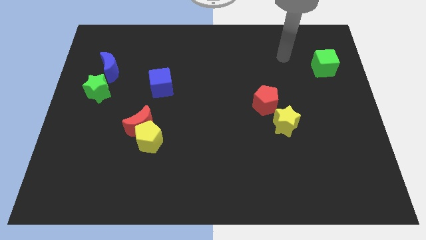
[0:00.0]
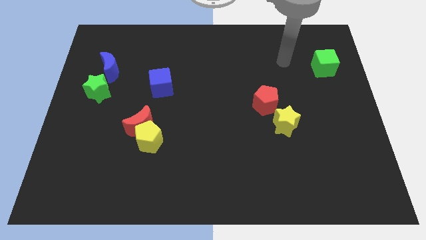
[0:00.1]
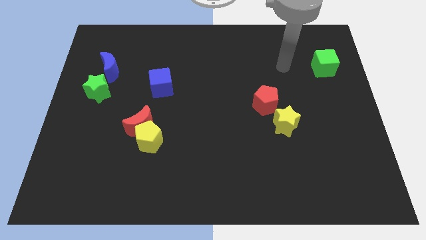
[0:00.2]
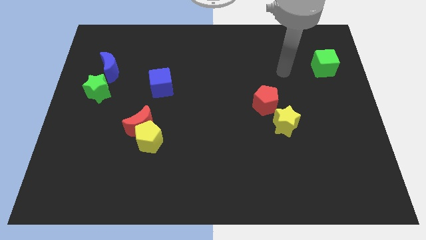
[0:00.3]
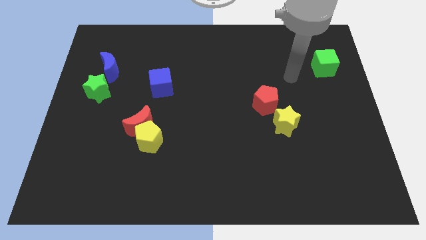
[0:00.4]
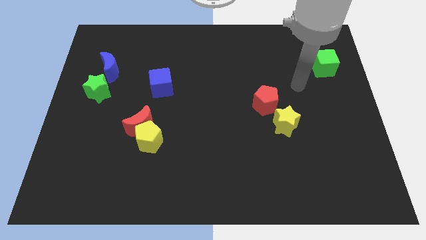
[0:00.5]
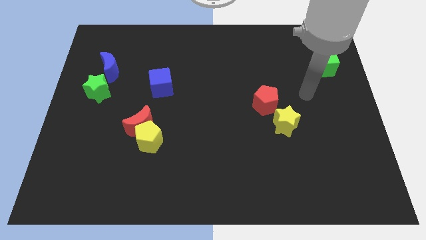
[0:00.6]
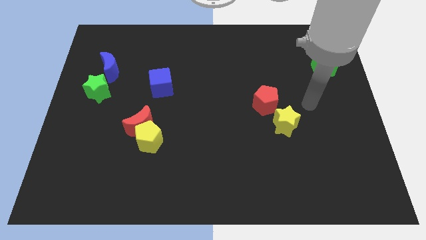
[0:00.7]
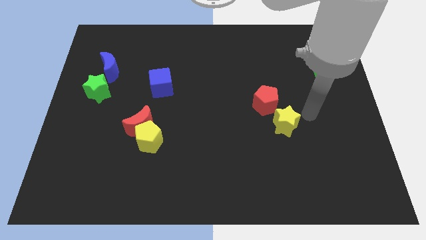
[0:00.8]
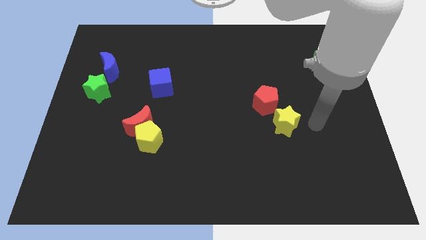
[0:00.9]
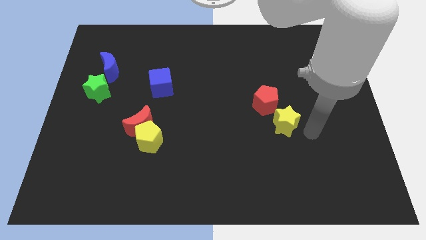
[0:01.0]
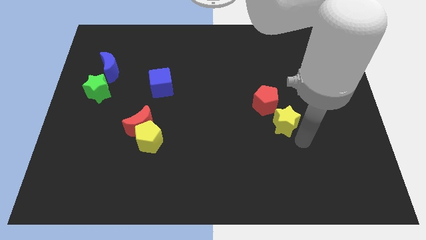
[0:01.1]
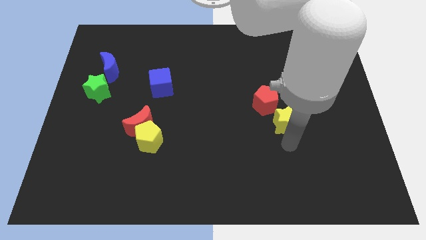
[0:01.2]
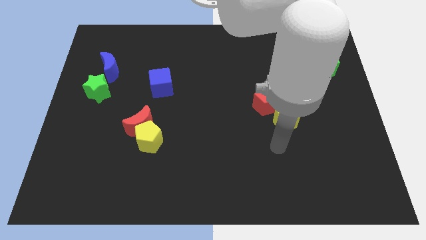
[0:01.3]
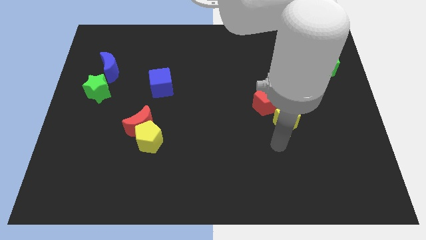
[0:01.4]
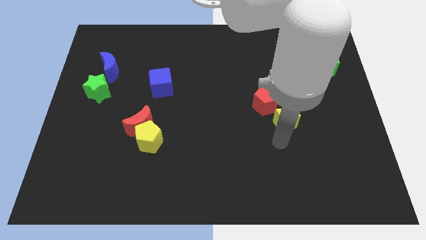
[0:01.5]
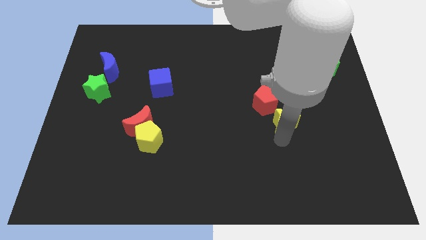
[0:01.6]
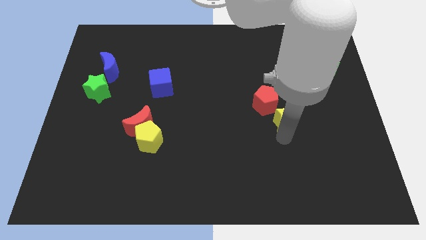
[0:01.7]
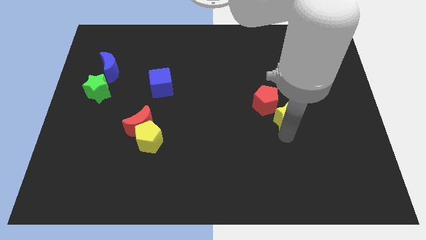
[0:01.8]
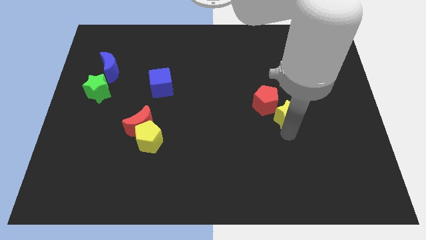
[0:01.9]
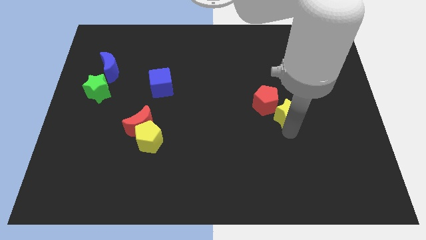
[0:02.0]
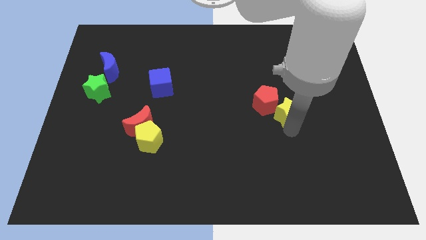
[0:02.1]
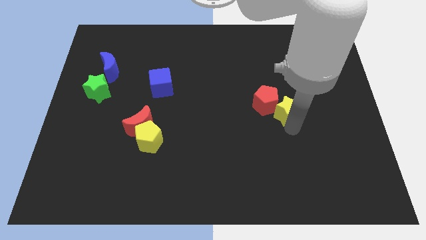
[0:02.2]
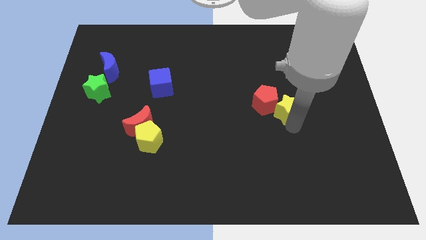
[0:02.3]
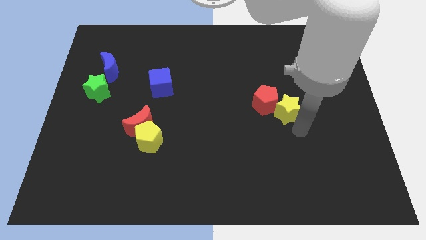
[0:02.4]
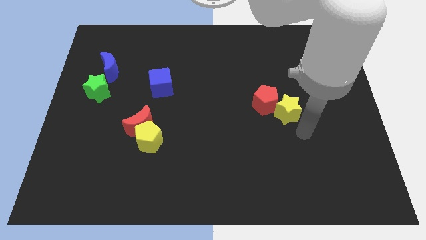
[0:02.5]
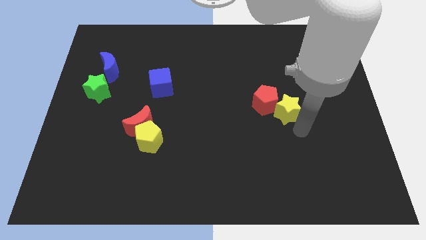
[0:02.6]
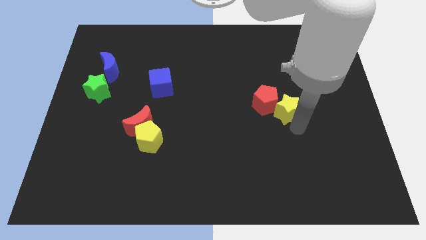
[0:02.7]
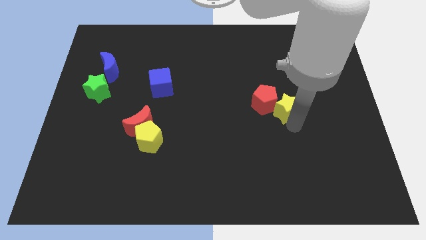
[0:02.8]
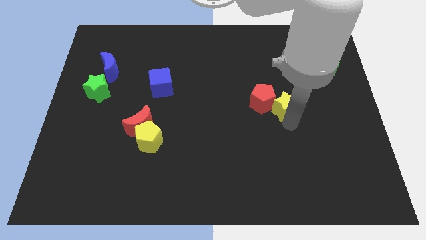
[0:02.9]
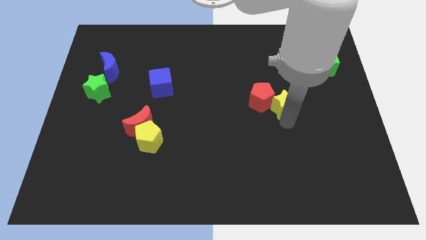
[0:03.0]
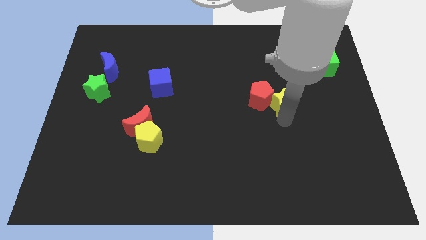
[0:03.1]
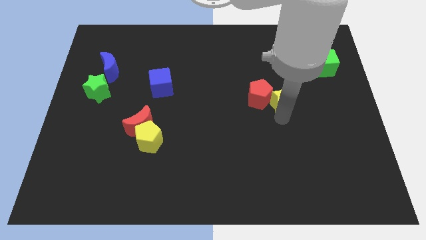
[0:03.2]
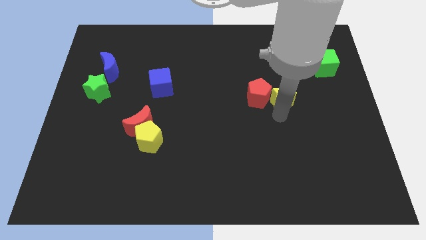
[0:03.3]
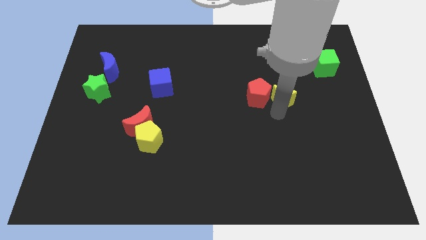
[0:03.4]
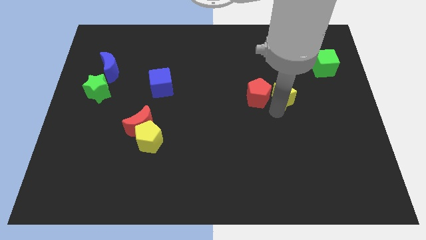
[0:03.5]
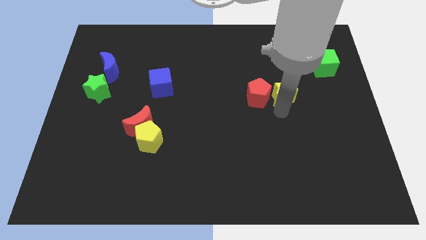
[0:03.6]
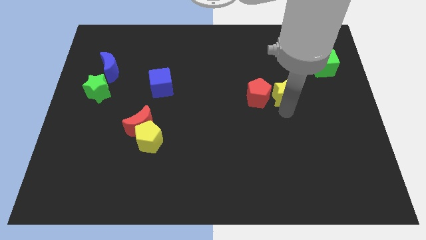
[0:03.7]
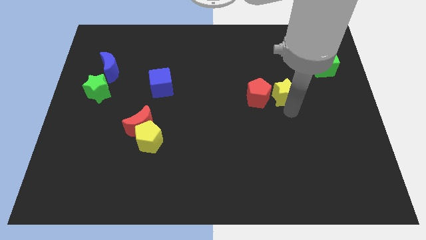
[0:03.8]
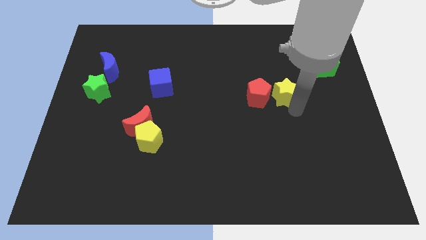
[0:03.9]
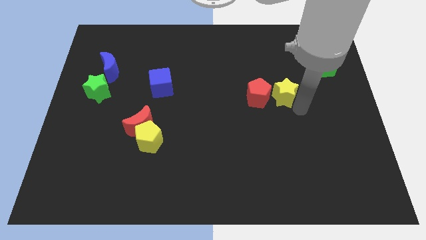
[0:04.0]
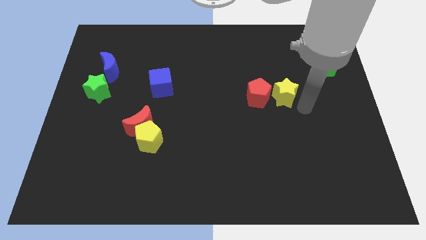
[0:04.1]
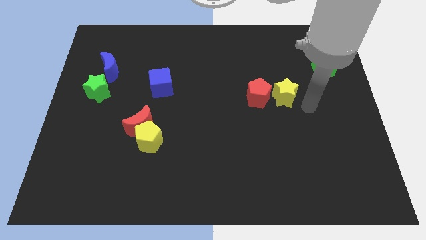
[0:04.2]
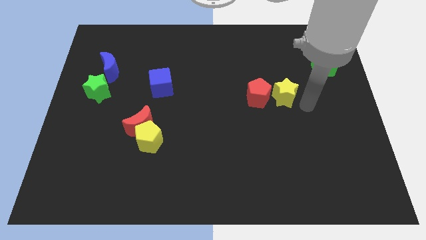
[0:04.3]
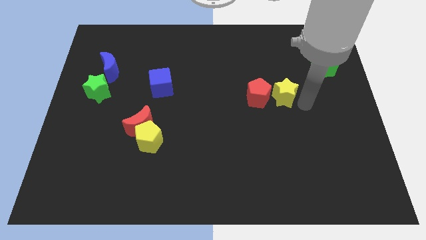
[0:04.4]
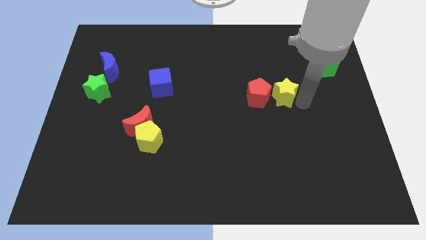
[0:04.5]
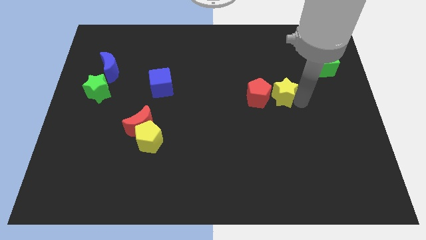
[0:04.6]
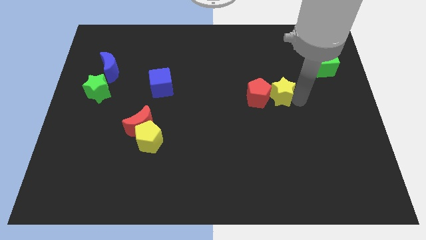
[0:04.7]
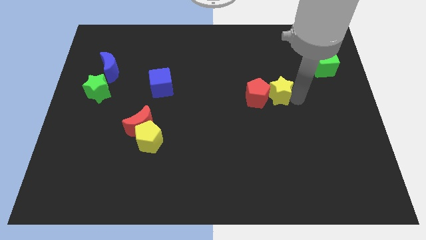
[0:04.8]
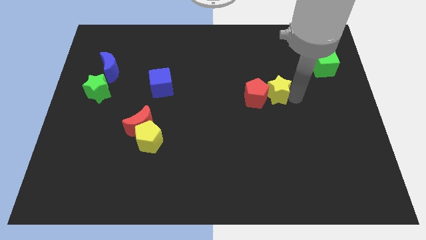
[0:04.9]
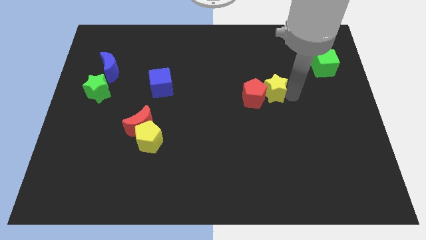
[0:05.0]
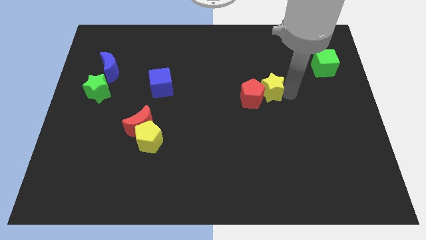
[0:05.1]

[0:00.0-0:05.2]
move the yellow star somewhat up and to the left diagonally

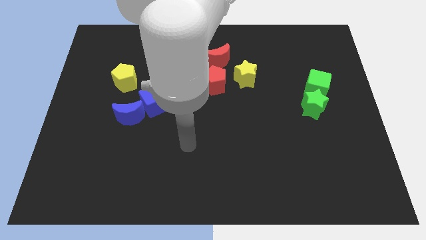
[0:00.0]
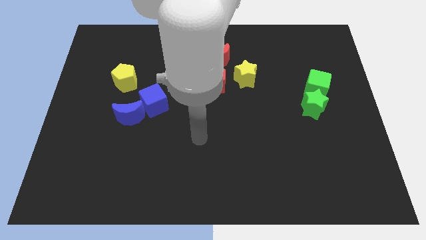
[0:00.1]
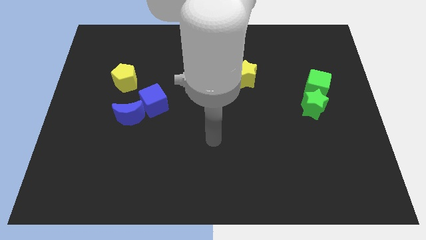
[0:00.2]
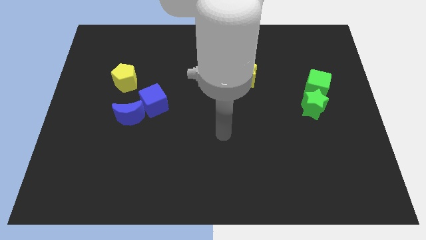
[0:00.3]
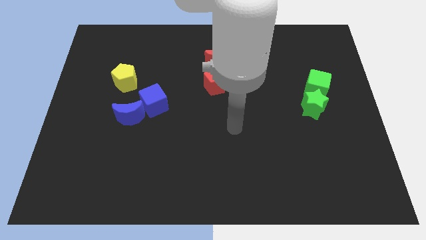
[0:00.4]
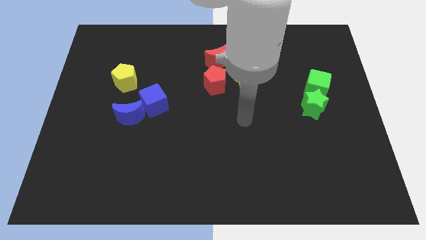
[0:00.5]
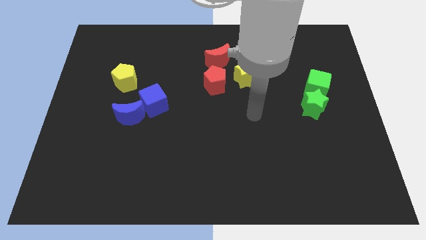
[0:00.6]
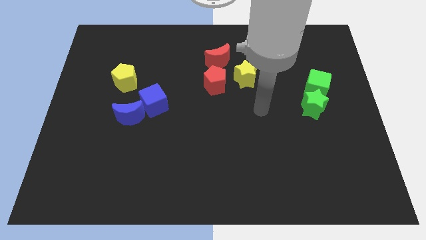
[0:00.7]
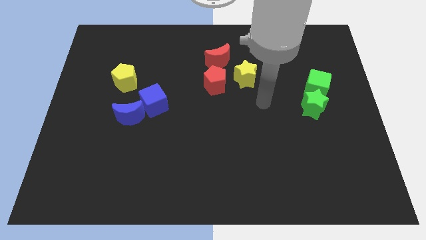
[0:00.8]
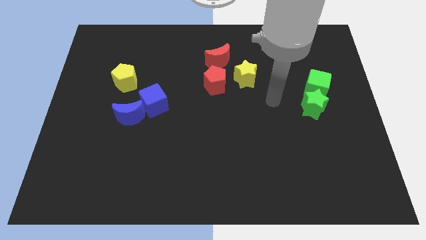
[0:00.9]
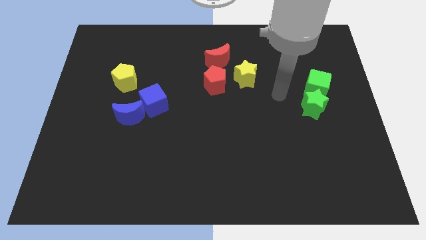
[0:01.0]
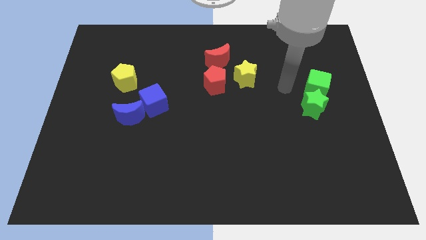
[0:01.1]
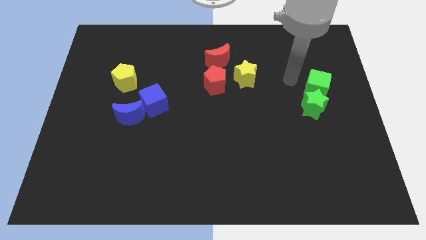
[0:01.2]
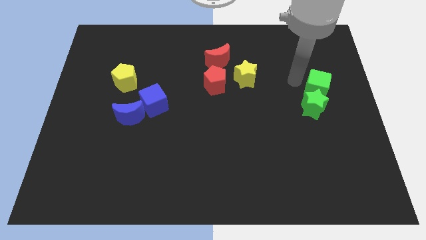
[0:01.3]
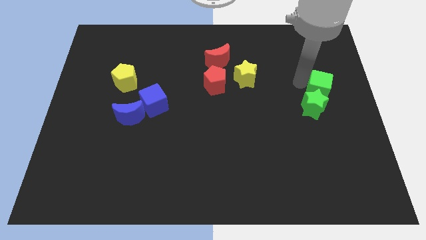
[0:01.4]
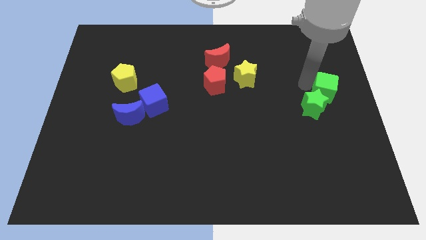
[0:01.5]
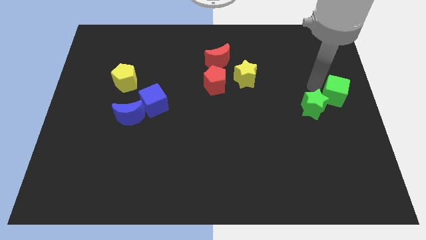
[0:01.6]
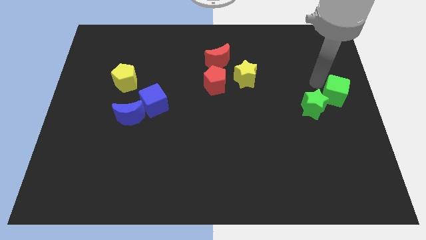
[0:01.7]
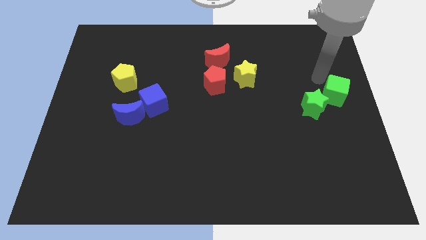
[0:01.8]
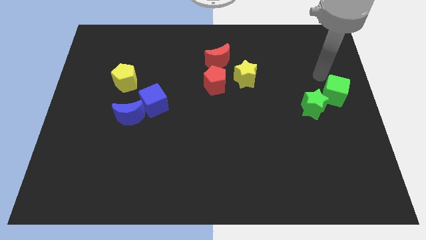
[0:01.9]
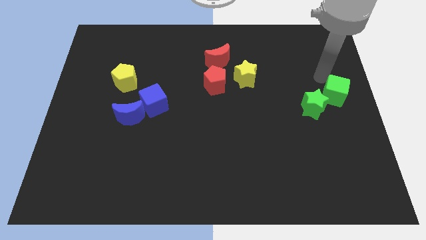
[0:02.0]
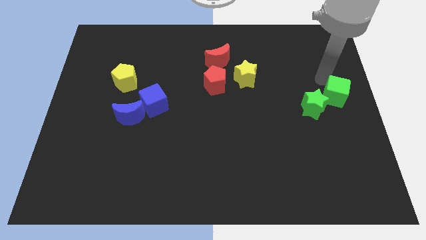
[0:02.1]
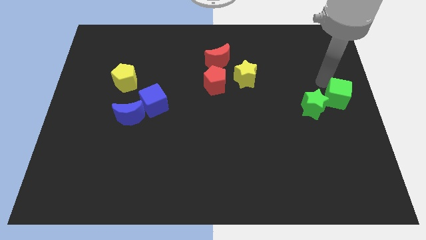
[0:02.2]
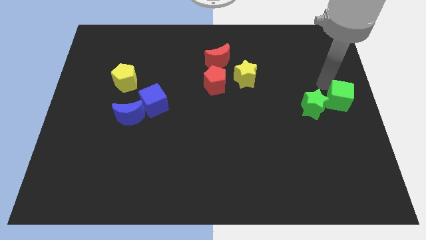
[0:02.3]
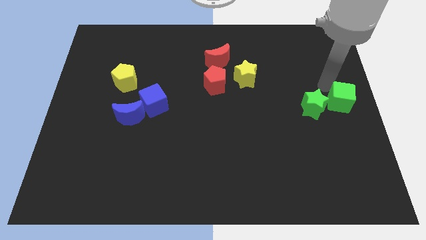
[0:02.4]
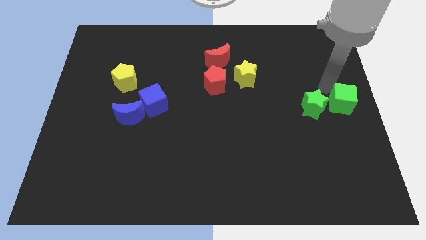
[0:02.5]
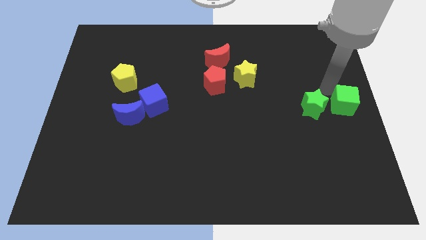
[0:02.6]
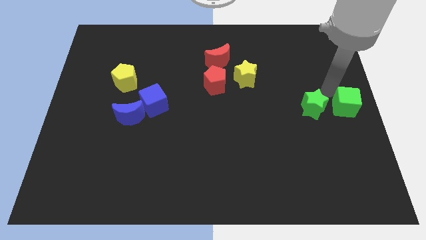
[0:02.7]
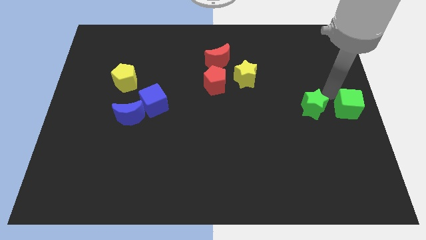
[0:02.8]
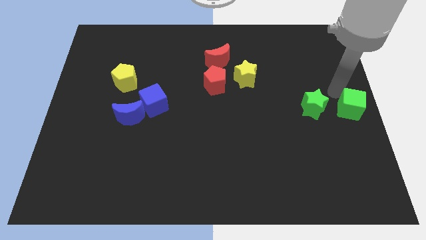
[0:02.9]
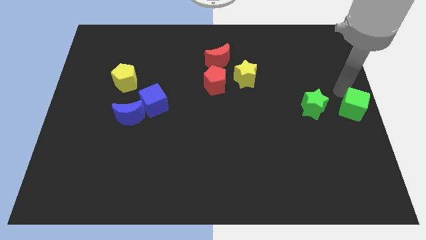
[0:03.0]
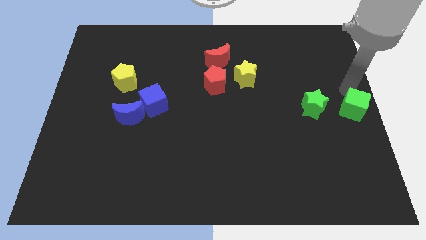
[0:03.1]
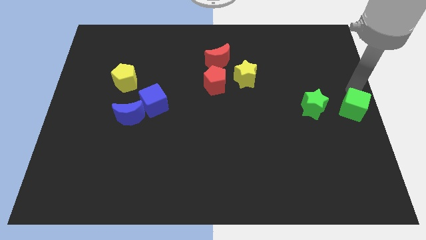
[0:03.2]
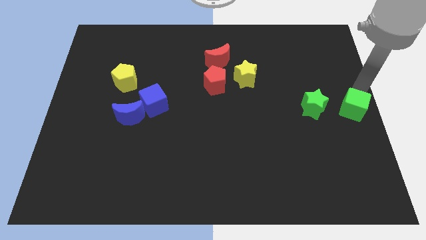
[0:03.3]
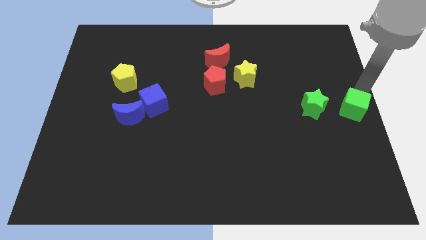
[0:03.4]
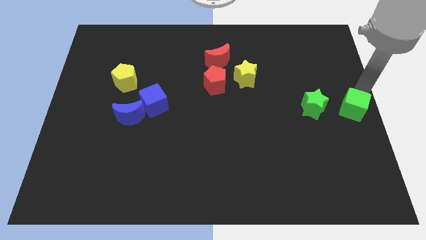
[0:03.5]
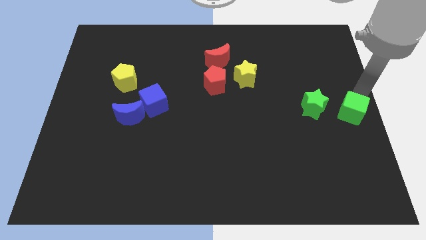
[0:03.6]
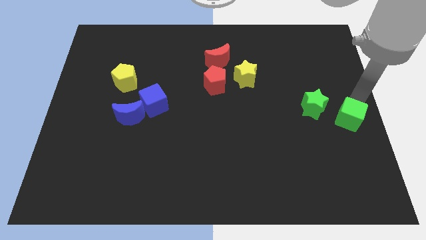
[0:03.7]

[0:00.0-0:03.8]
push the green cube a little down
